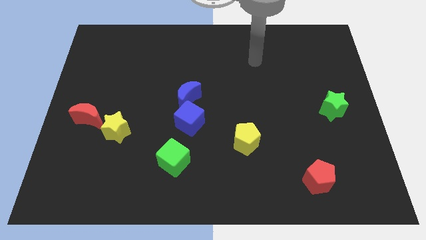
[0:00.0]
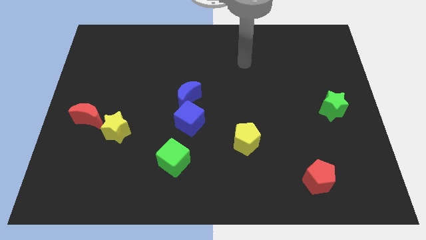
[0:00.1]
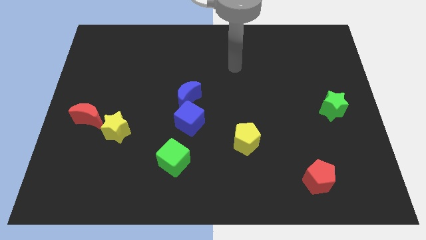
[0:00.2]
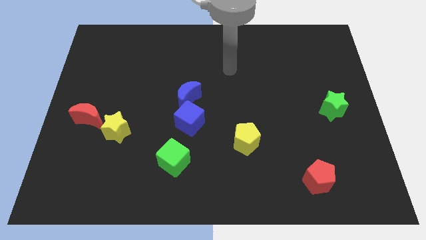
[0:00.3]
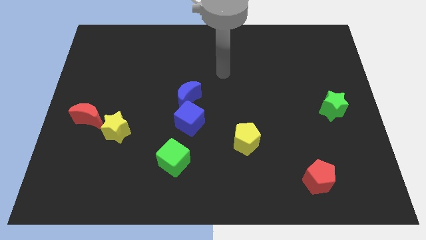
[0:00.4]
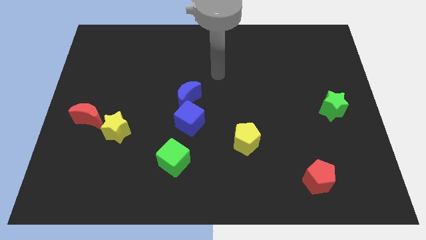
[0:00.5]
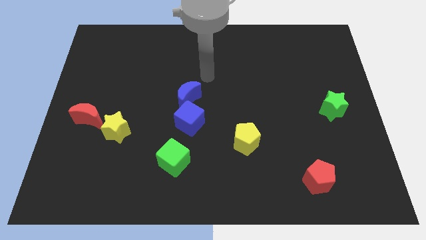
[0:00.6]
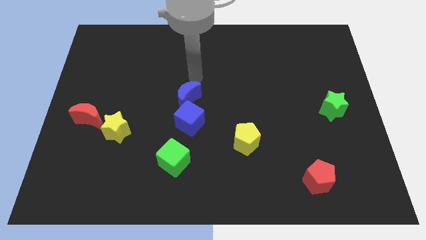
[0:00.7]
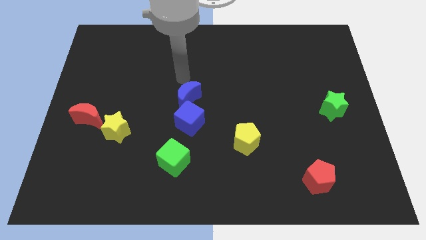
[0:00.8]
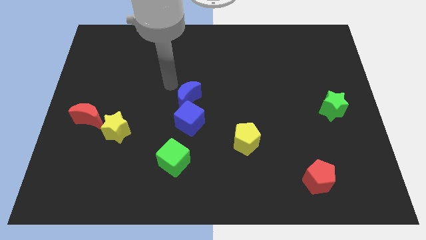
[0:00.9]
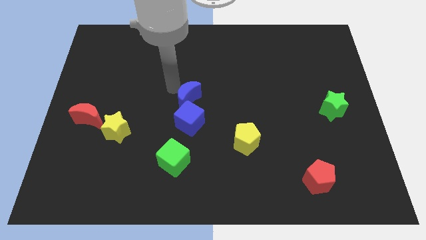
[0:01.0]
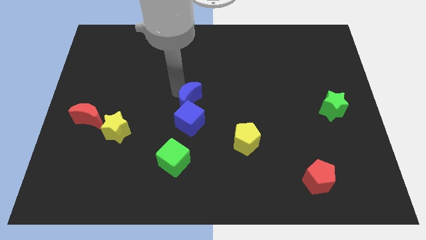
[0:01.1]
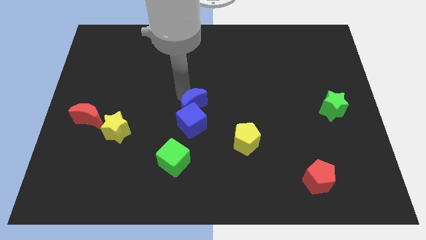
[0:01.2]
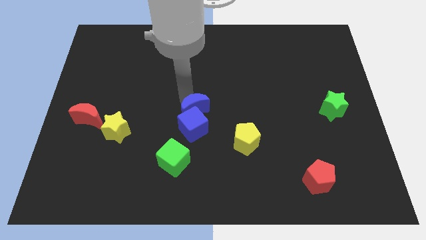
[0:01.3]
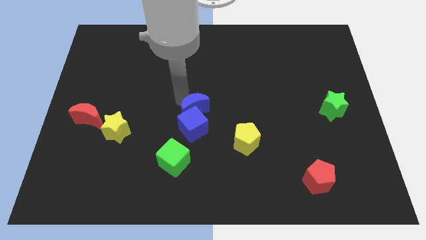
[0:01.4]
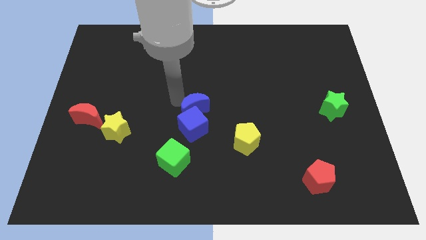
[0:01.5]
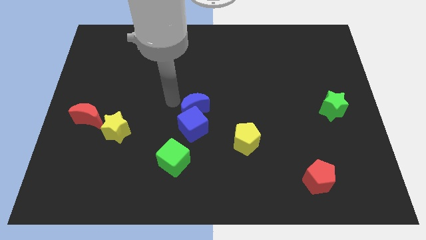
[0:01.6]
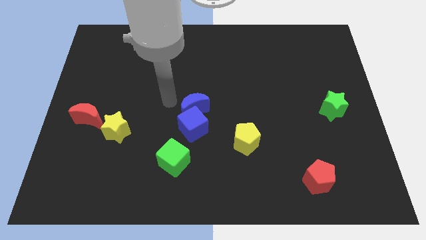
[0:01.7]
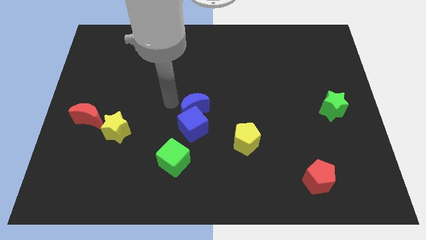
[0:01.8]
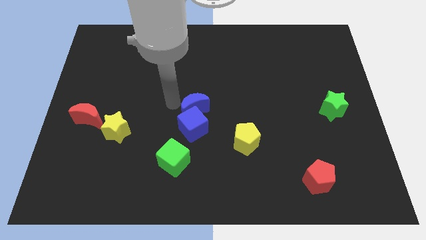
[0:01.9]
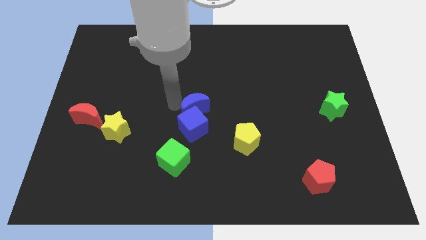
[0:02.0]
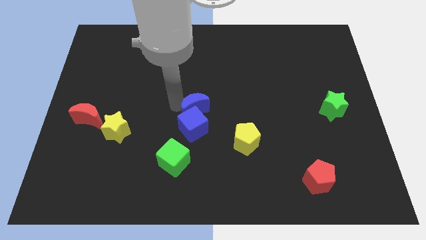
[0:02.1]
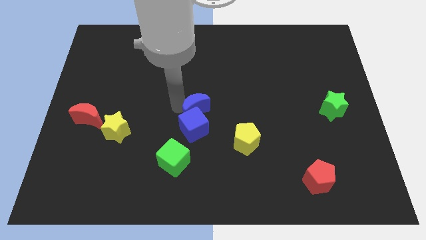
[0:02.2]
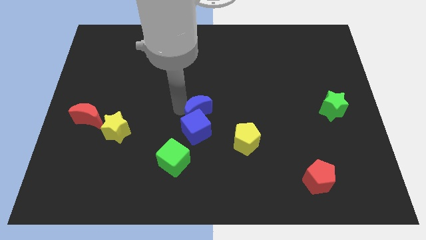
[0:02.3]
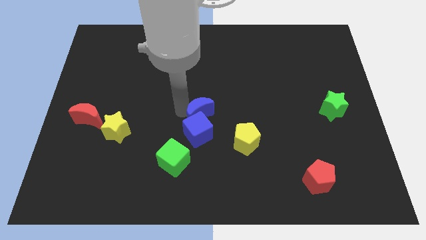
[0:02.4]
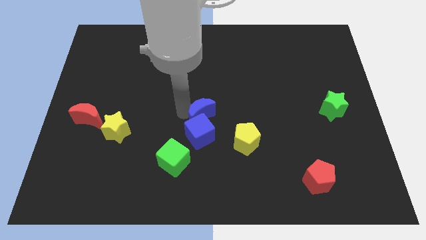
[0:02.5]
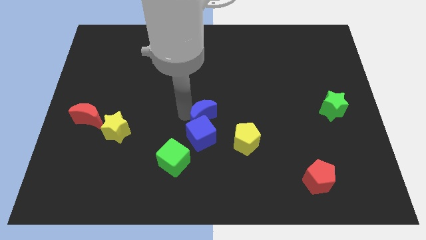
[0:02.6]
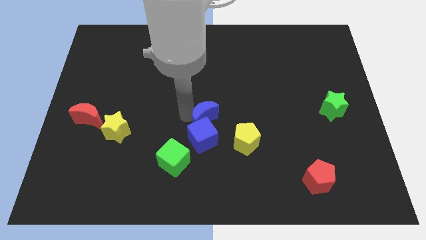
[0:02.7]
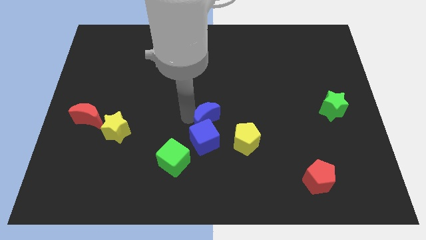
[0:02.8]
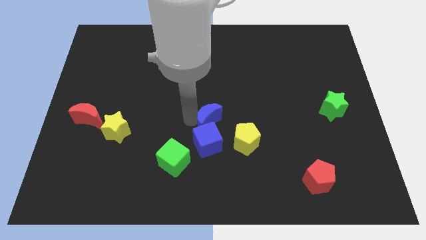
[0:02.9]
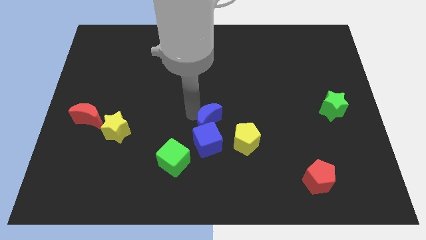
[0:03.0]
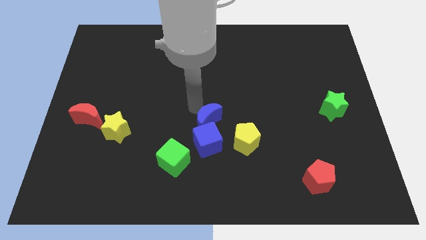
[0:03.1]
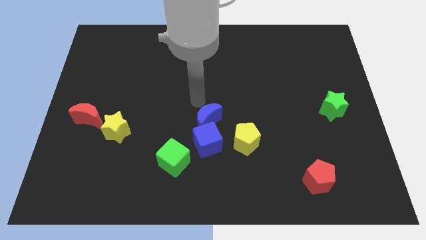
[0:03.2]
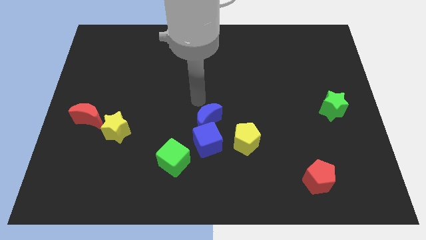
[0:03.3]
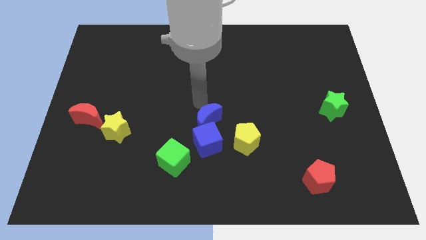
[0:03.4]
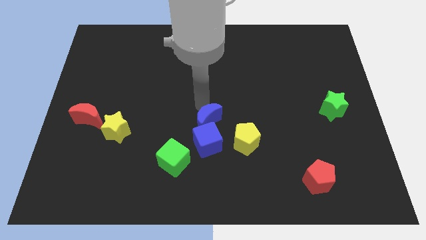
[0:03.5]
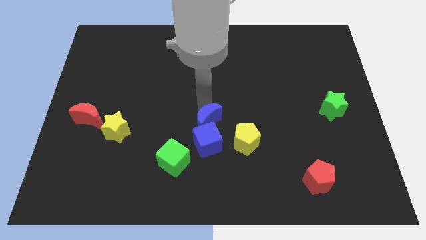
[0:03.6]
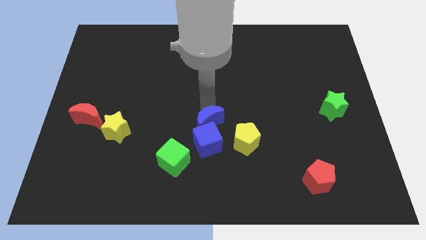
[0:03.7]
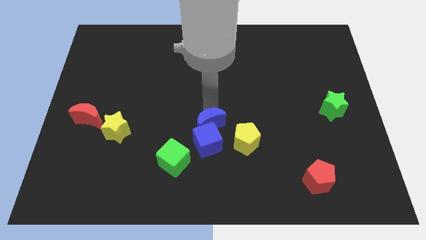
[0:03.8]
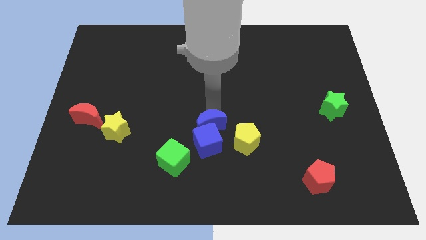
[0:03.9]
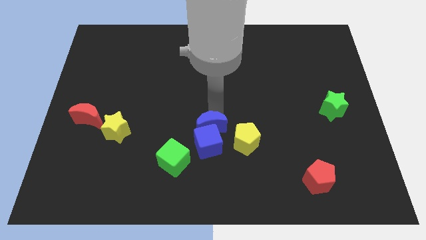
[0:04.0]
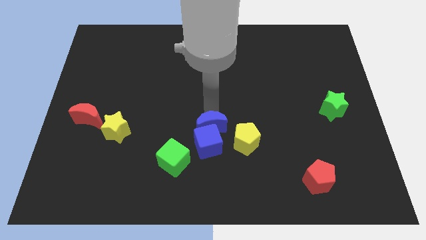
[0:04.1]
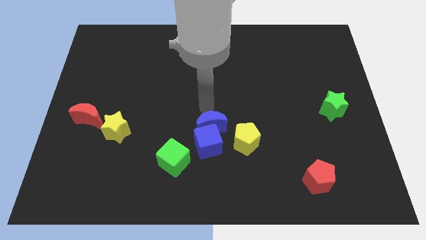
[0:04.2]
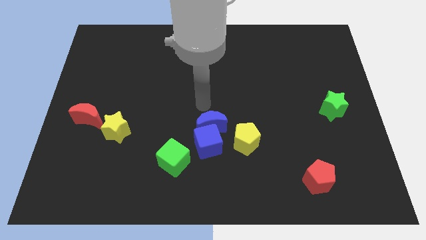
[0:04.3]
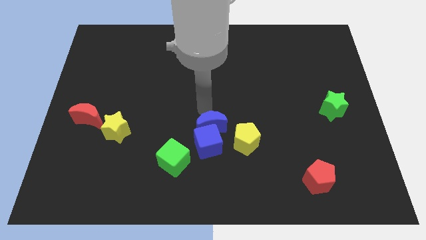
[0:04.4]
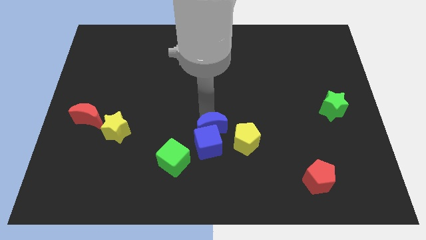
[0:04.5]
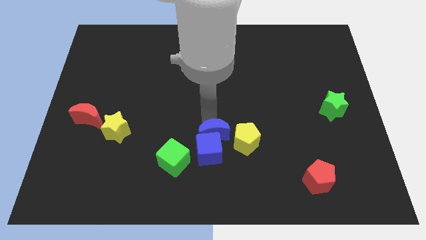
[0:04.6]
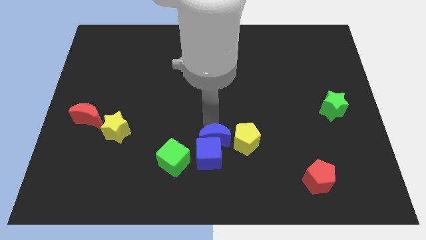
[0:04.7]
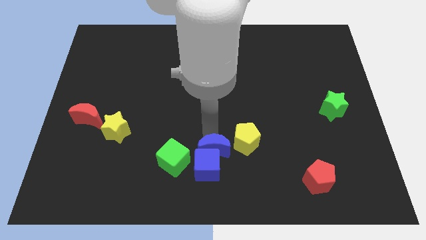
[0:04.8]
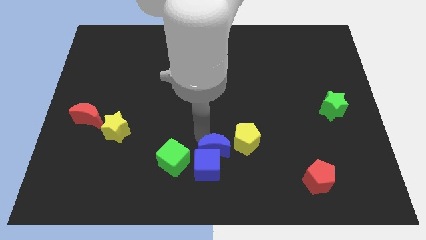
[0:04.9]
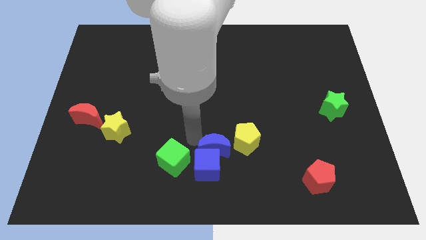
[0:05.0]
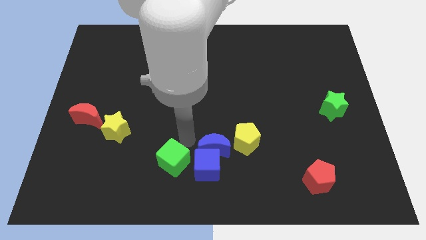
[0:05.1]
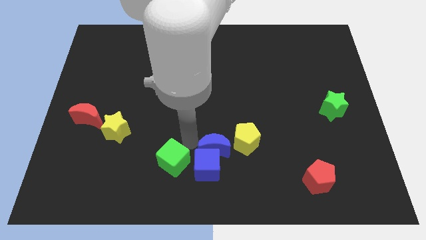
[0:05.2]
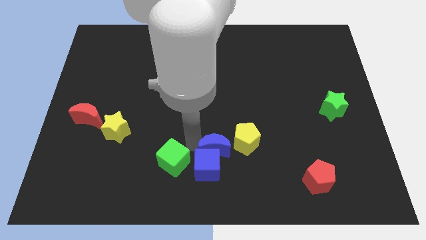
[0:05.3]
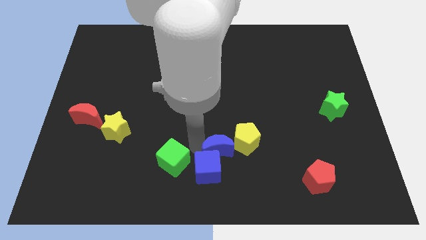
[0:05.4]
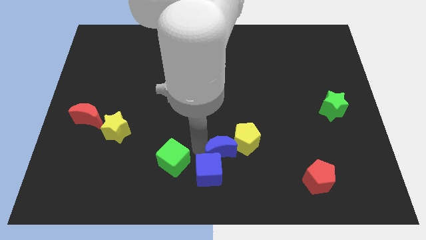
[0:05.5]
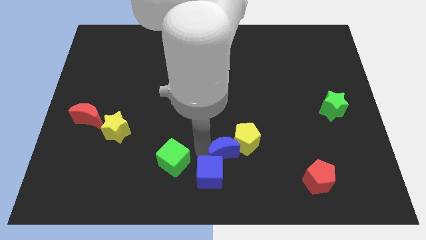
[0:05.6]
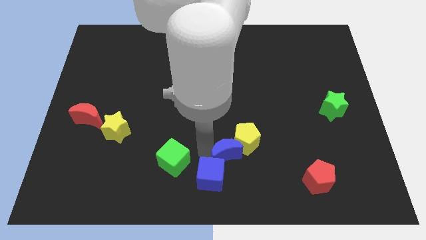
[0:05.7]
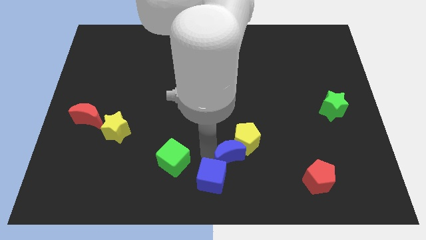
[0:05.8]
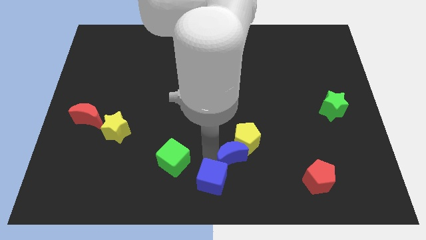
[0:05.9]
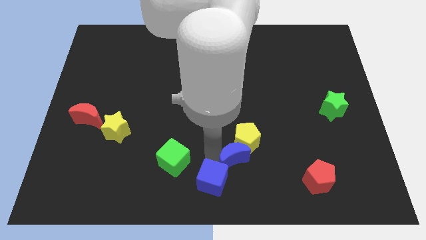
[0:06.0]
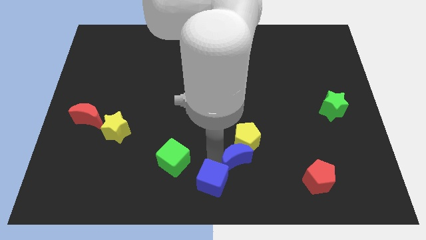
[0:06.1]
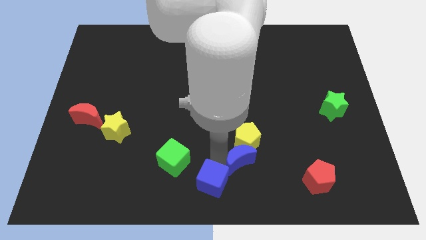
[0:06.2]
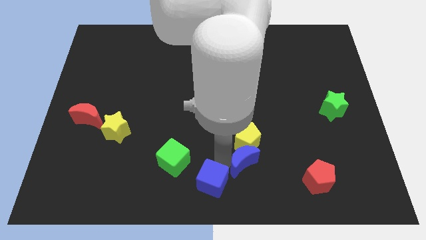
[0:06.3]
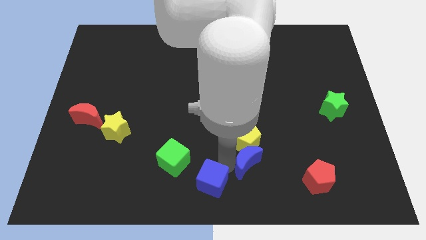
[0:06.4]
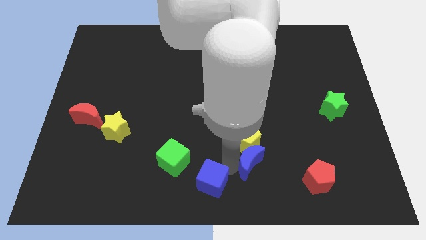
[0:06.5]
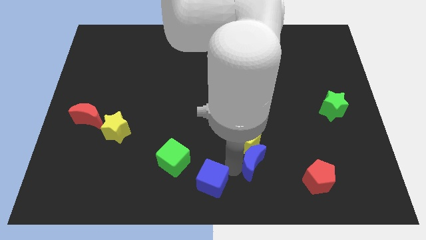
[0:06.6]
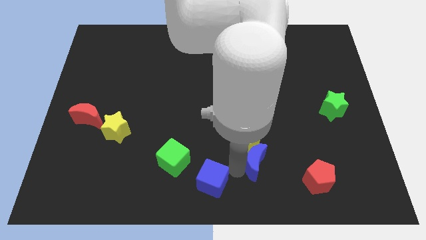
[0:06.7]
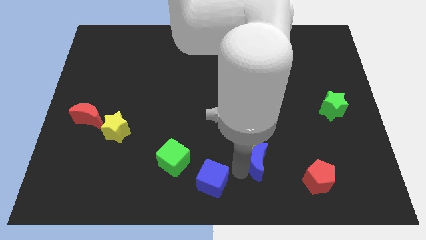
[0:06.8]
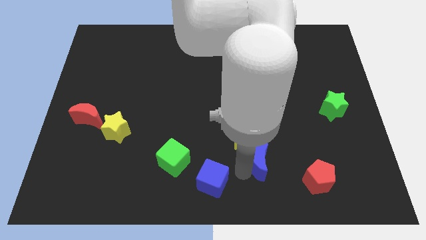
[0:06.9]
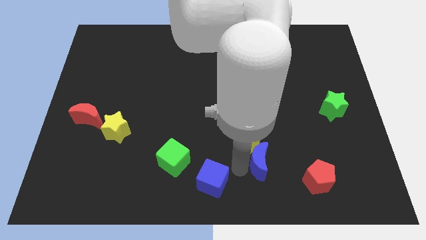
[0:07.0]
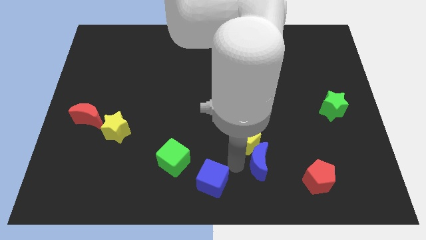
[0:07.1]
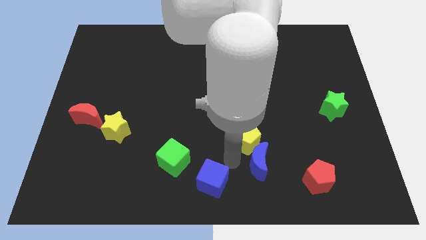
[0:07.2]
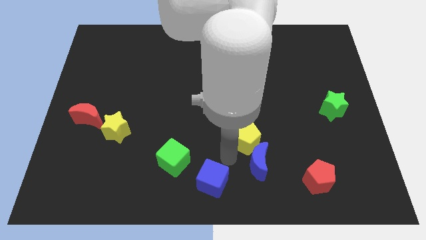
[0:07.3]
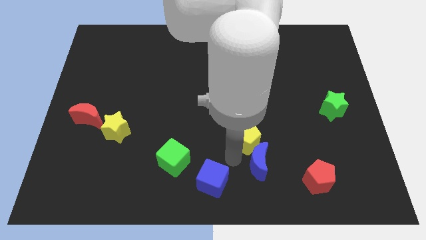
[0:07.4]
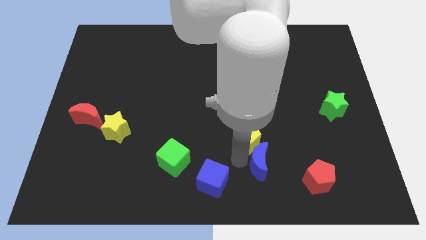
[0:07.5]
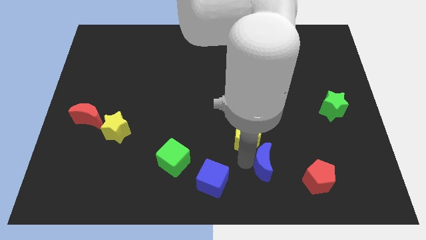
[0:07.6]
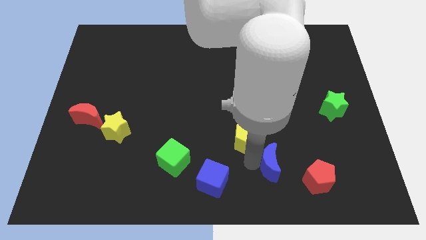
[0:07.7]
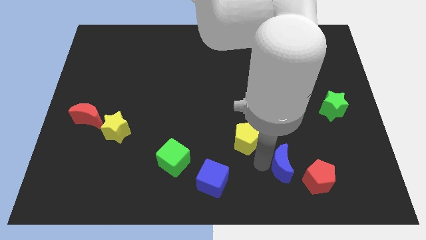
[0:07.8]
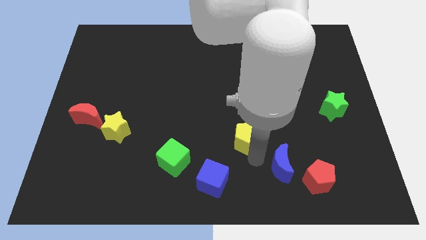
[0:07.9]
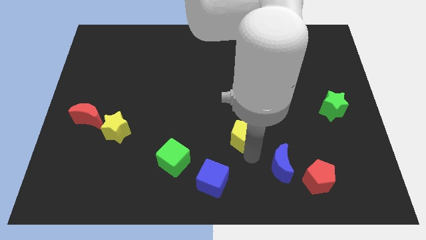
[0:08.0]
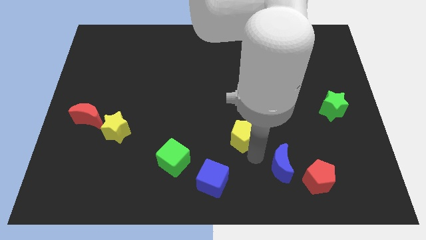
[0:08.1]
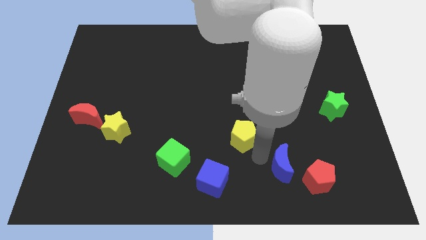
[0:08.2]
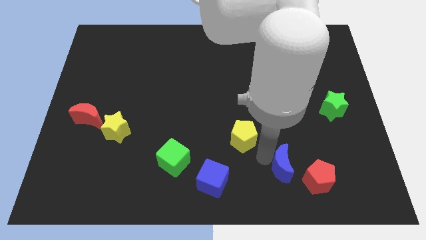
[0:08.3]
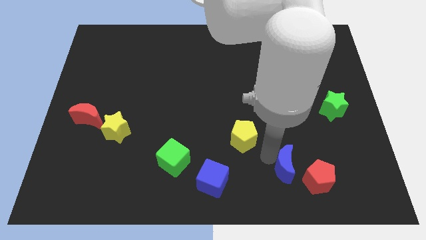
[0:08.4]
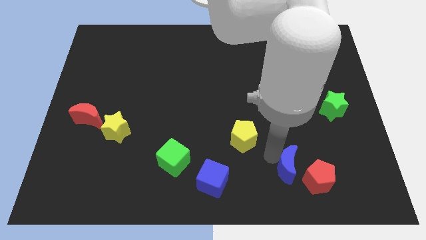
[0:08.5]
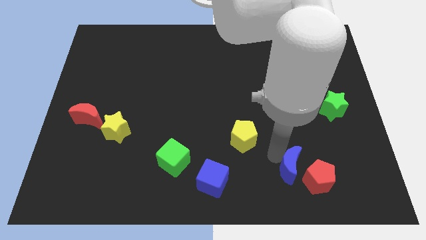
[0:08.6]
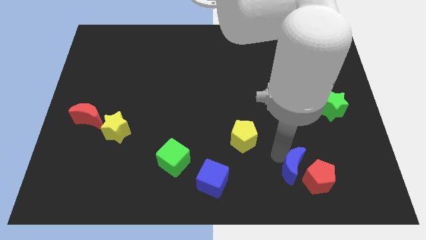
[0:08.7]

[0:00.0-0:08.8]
slide the blue moon close to the red pentagon
